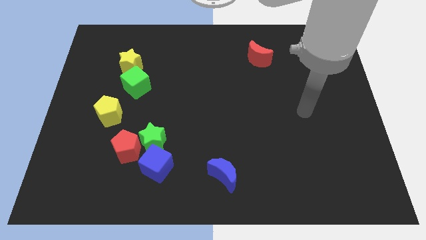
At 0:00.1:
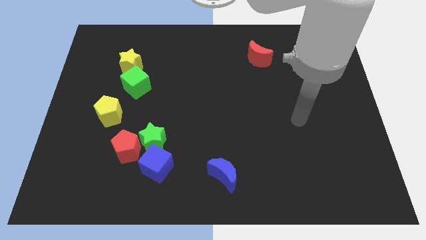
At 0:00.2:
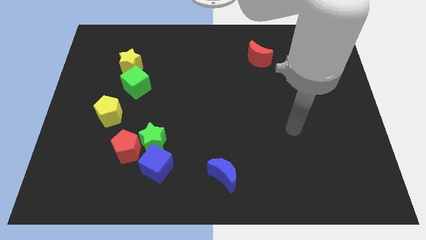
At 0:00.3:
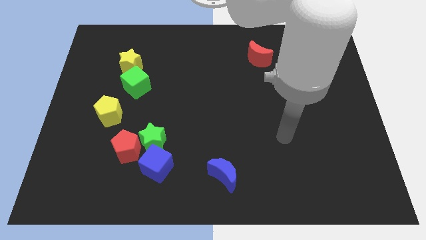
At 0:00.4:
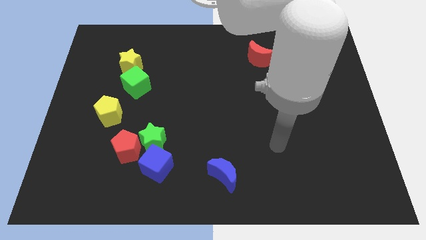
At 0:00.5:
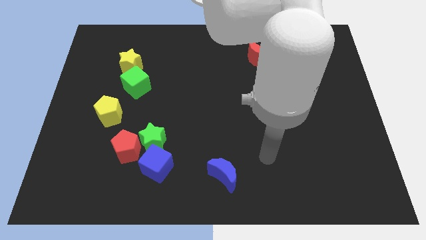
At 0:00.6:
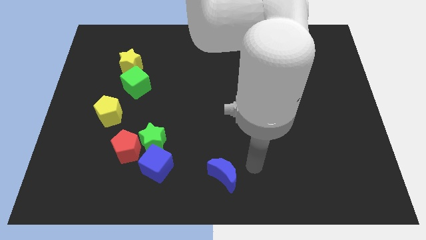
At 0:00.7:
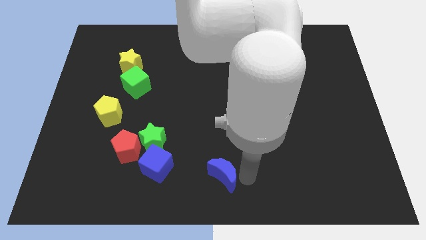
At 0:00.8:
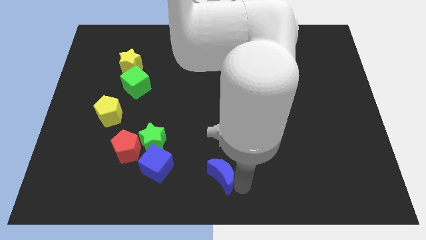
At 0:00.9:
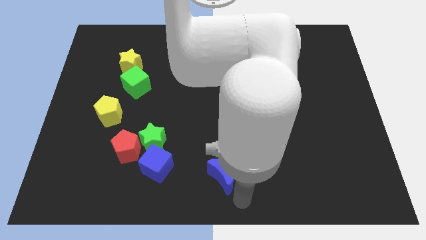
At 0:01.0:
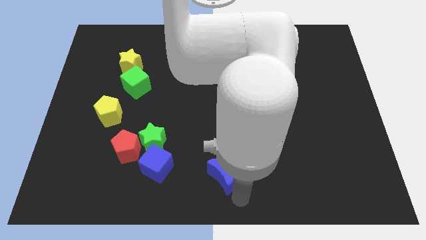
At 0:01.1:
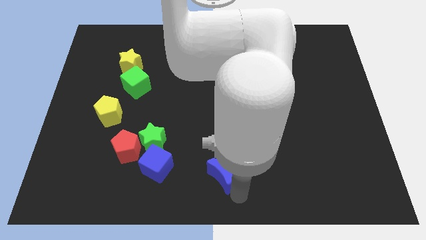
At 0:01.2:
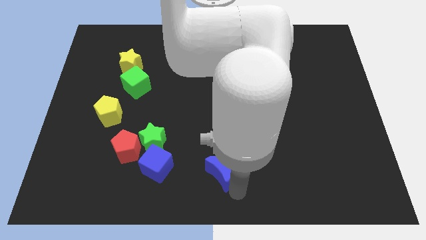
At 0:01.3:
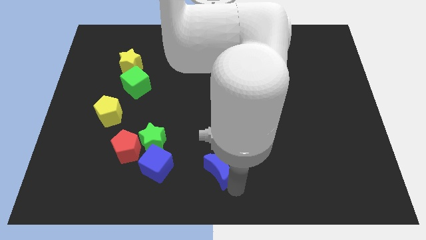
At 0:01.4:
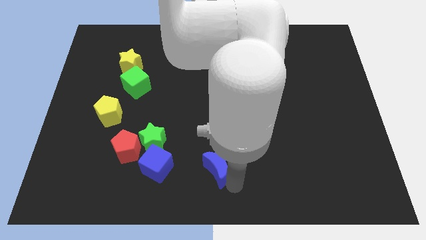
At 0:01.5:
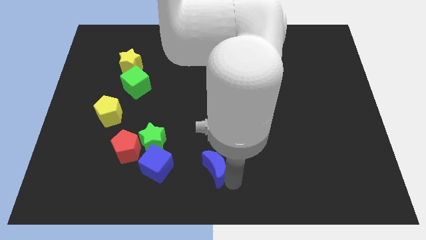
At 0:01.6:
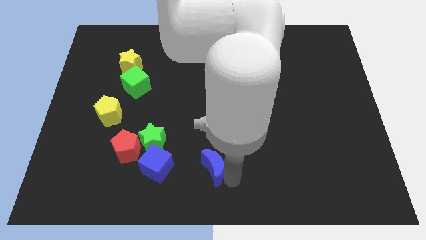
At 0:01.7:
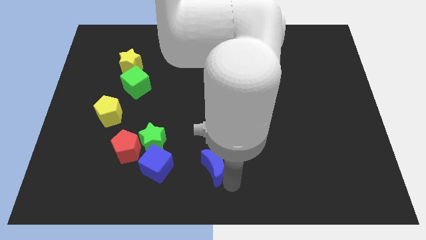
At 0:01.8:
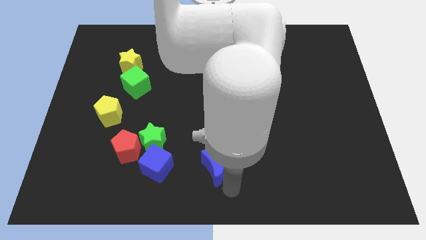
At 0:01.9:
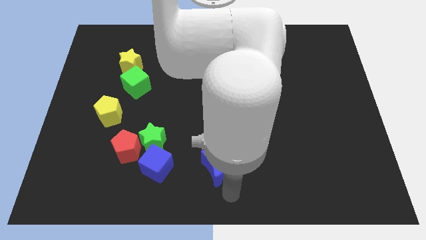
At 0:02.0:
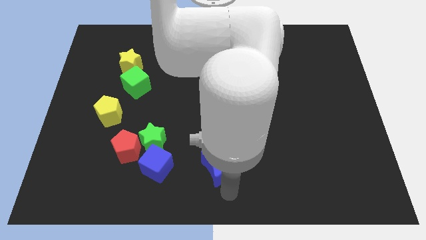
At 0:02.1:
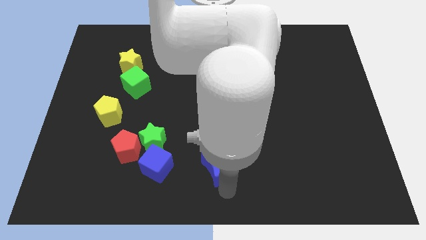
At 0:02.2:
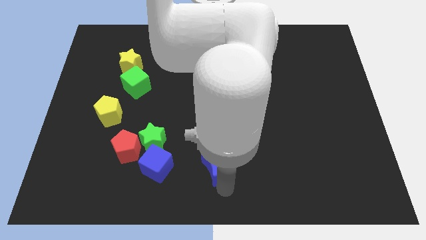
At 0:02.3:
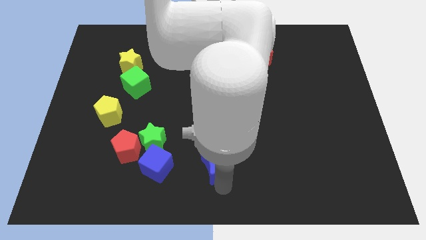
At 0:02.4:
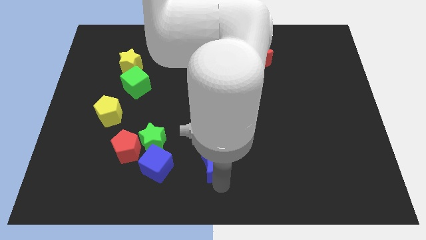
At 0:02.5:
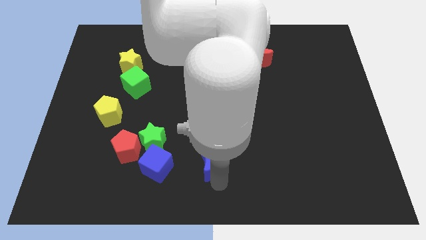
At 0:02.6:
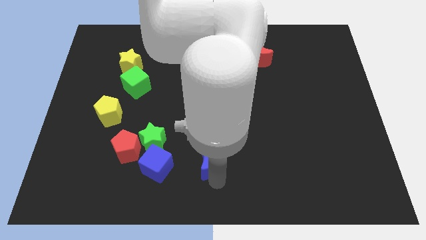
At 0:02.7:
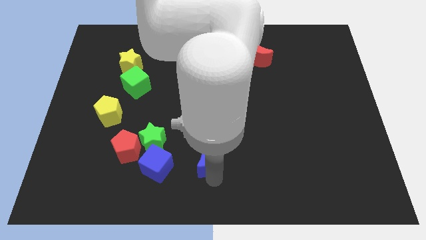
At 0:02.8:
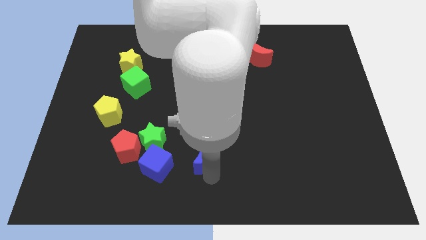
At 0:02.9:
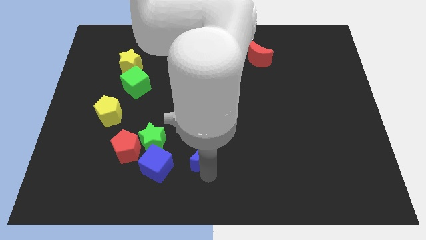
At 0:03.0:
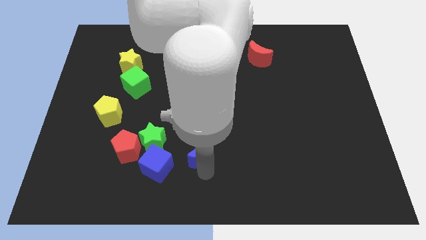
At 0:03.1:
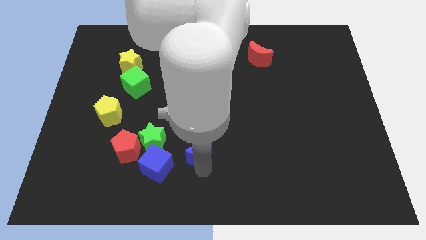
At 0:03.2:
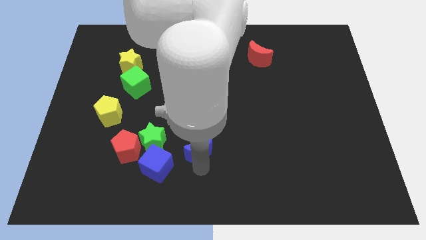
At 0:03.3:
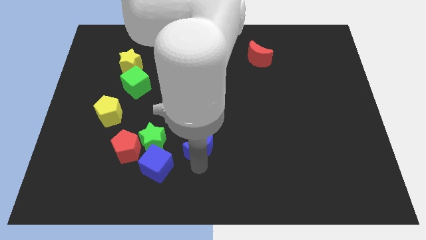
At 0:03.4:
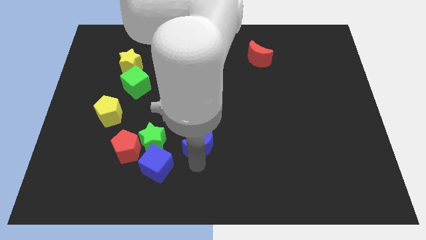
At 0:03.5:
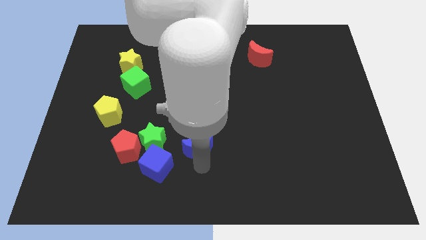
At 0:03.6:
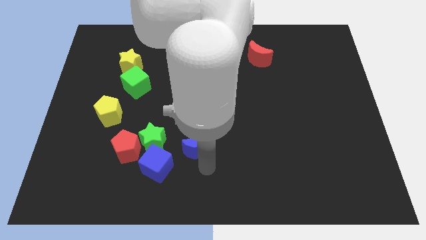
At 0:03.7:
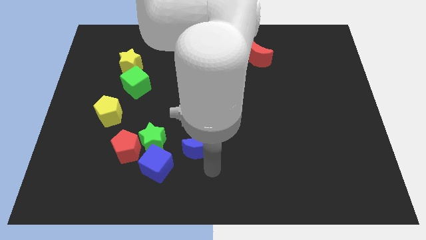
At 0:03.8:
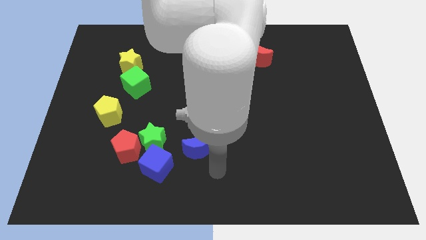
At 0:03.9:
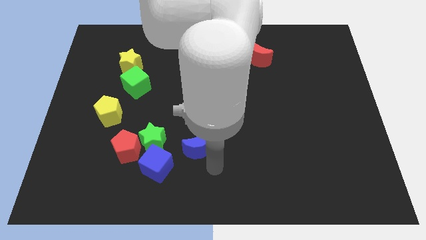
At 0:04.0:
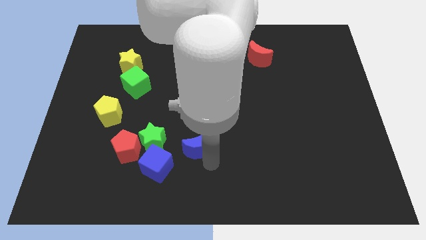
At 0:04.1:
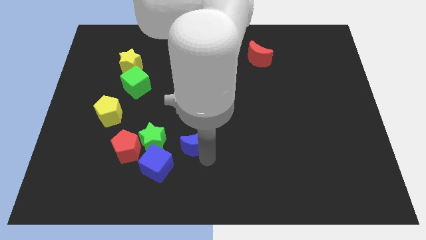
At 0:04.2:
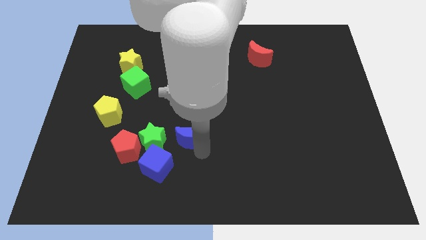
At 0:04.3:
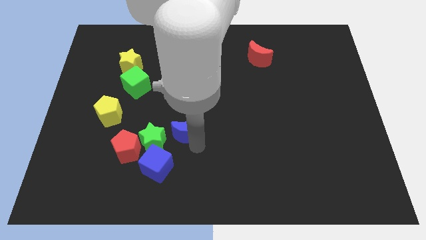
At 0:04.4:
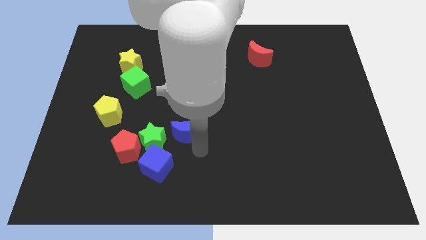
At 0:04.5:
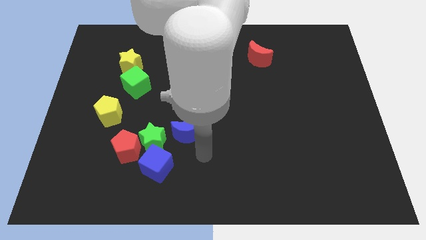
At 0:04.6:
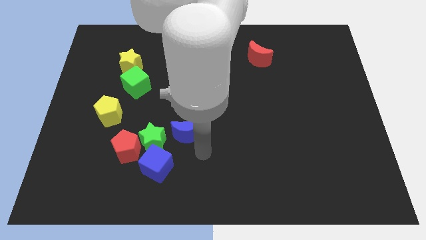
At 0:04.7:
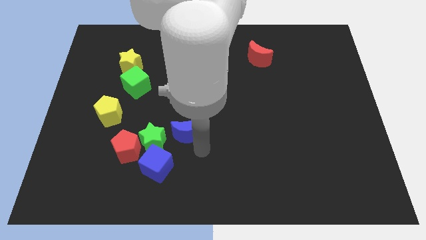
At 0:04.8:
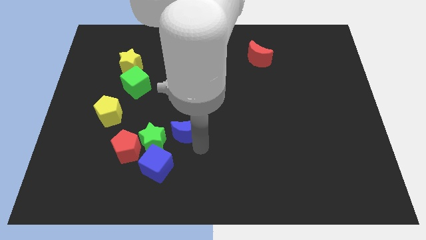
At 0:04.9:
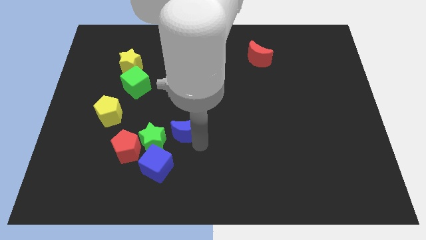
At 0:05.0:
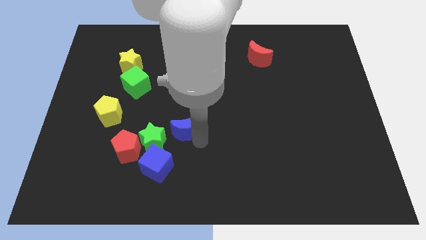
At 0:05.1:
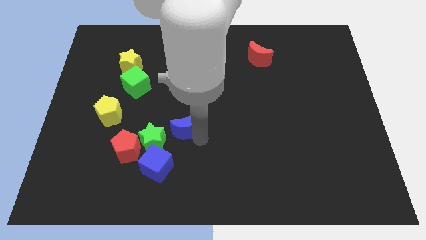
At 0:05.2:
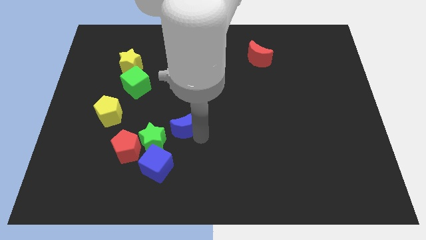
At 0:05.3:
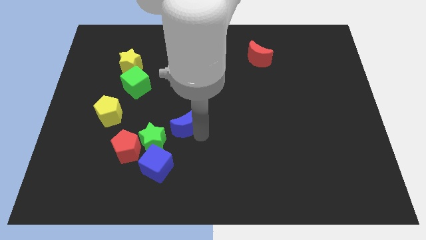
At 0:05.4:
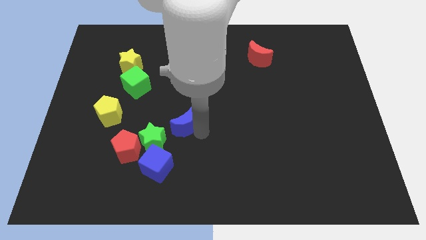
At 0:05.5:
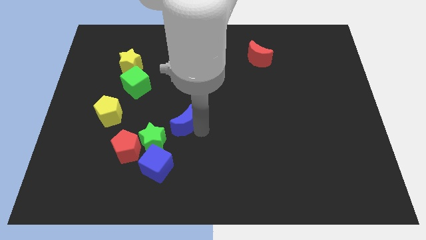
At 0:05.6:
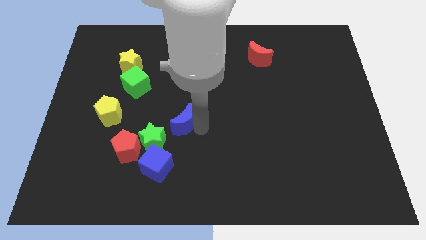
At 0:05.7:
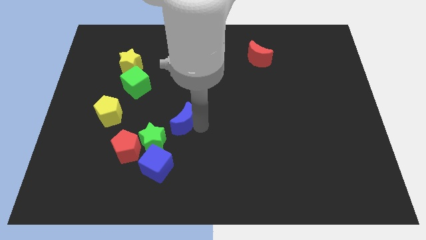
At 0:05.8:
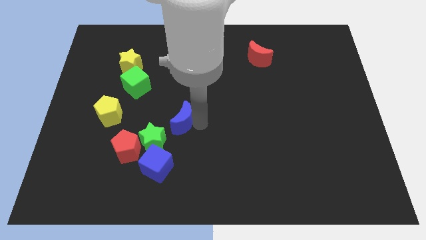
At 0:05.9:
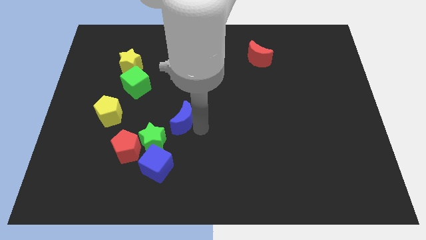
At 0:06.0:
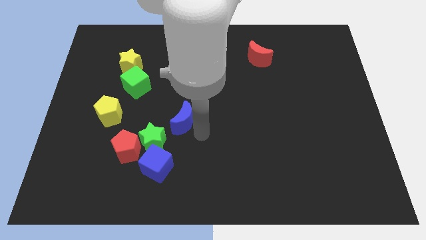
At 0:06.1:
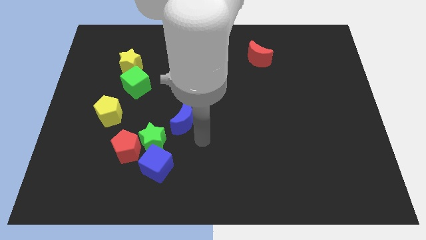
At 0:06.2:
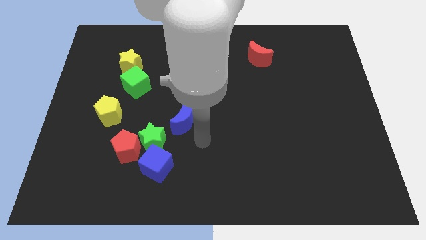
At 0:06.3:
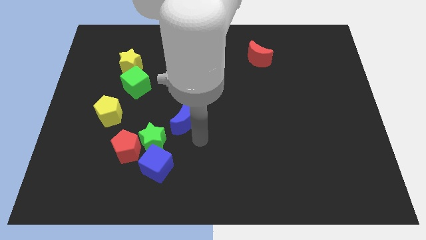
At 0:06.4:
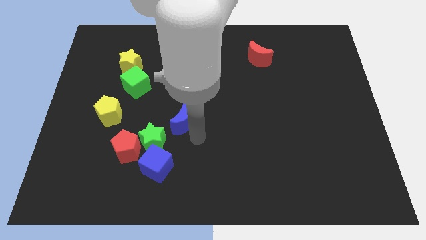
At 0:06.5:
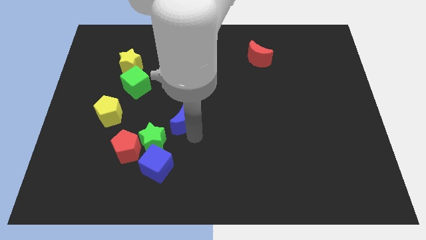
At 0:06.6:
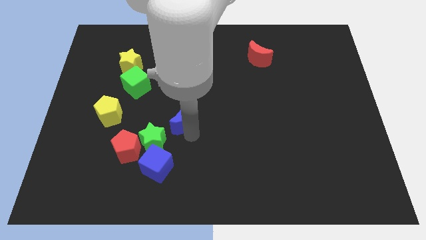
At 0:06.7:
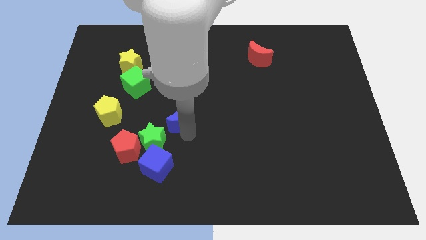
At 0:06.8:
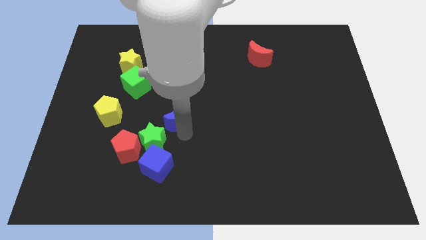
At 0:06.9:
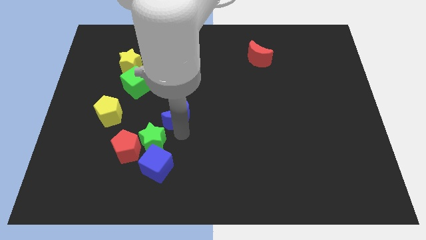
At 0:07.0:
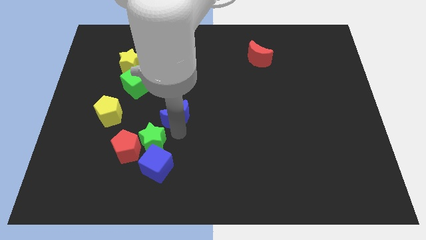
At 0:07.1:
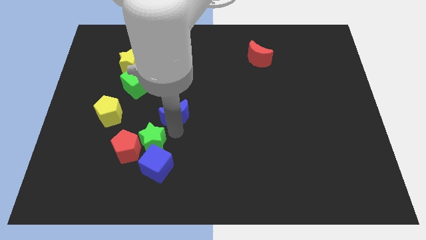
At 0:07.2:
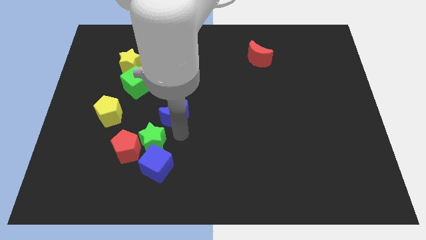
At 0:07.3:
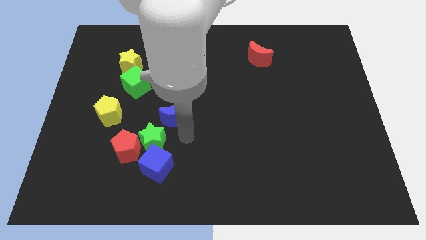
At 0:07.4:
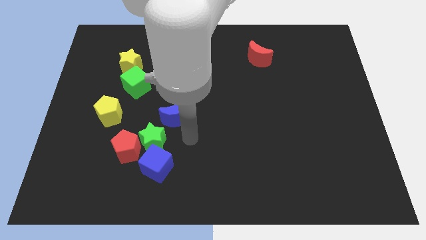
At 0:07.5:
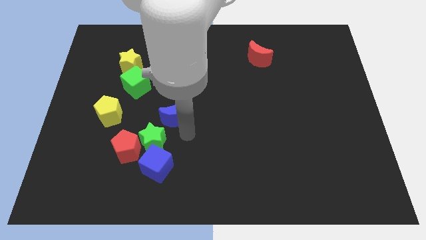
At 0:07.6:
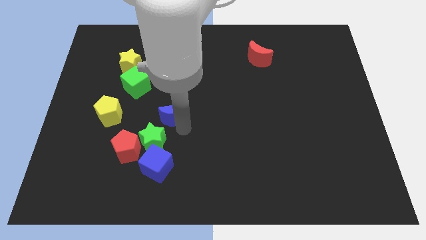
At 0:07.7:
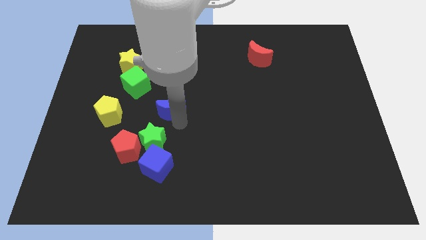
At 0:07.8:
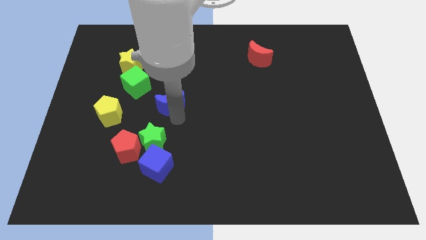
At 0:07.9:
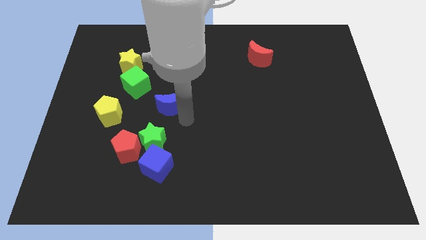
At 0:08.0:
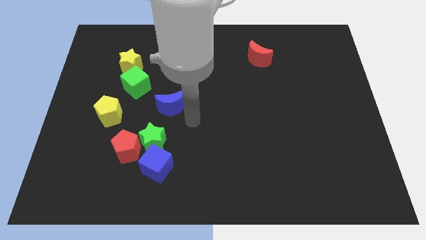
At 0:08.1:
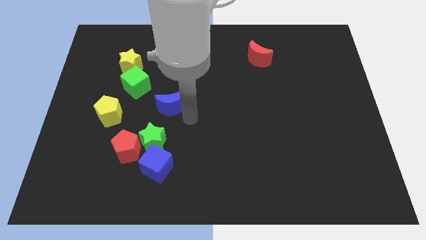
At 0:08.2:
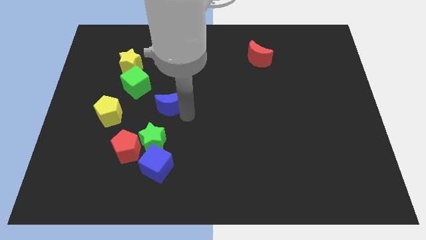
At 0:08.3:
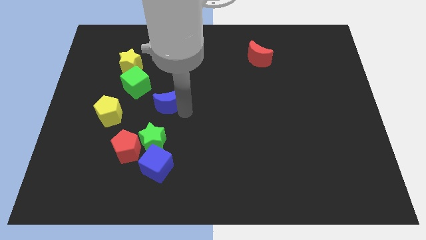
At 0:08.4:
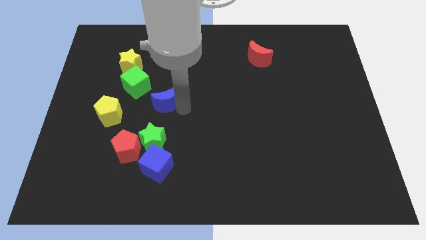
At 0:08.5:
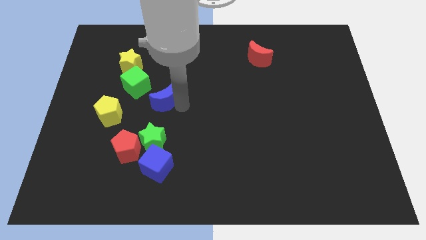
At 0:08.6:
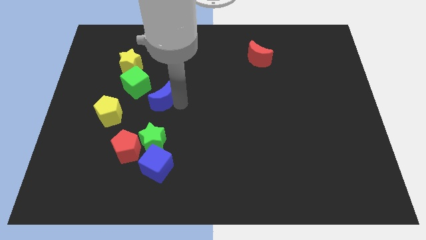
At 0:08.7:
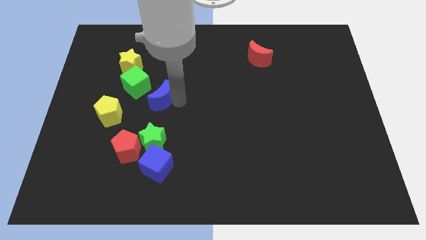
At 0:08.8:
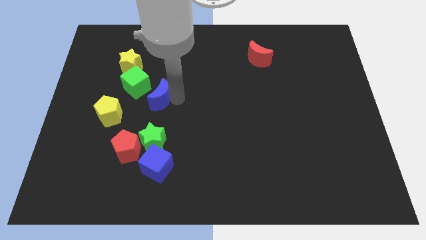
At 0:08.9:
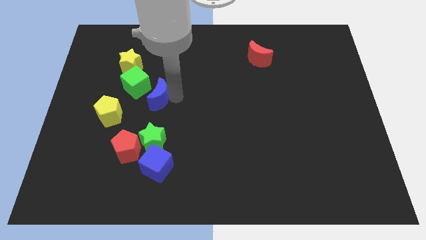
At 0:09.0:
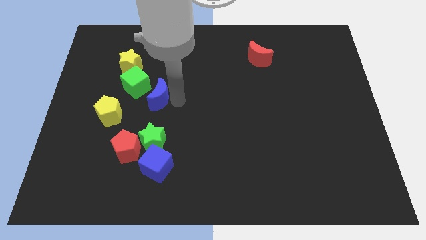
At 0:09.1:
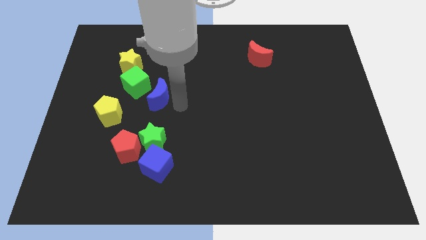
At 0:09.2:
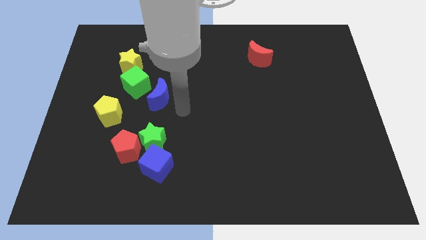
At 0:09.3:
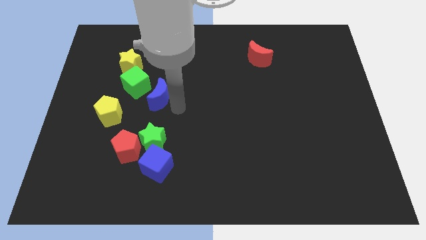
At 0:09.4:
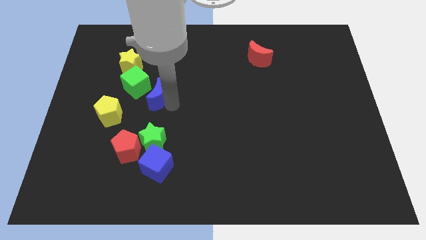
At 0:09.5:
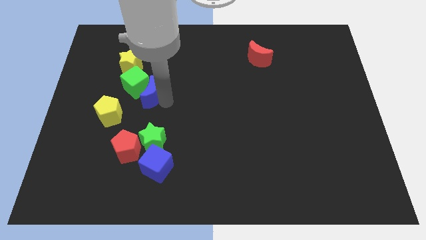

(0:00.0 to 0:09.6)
put the blue moon next to the green cube
